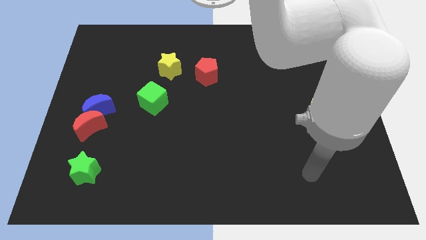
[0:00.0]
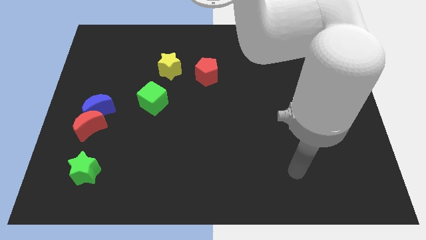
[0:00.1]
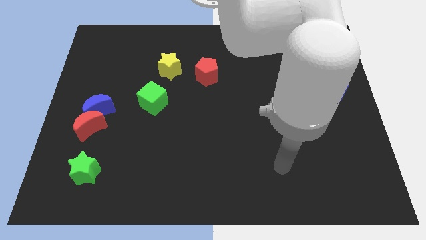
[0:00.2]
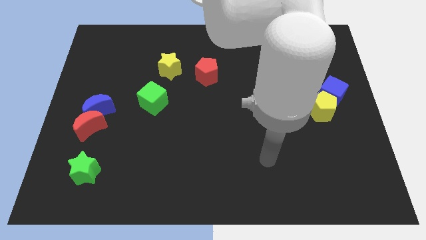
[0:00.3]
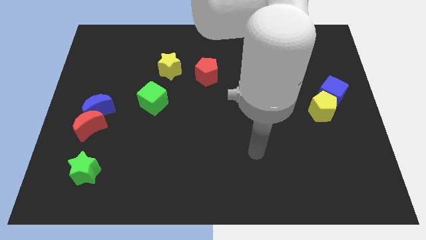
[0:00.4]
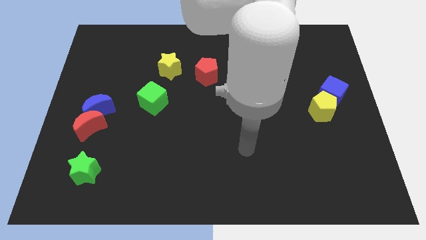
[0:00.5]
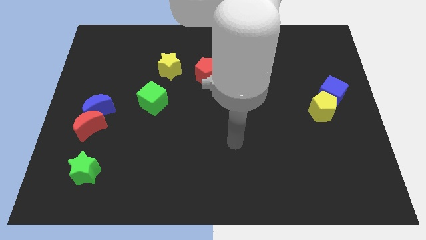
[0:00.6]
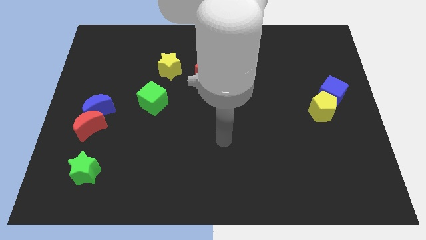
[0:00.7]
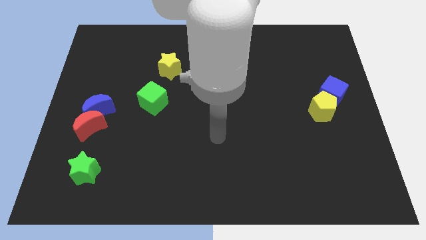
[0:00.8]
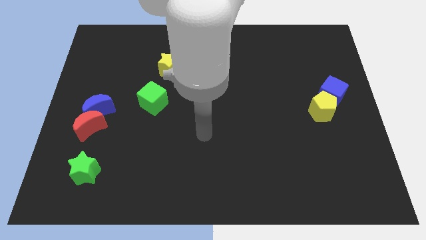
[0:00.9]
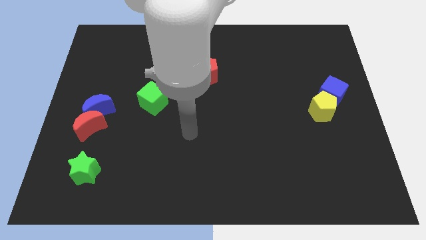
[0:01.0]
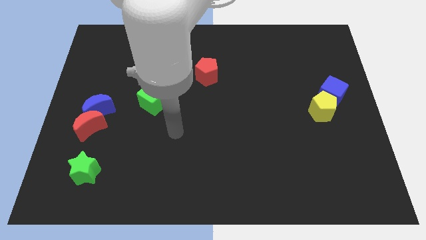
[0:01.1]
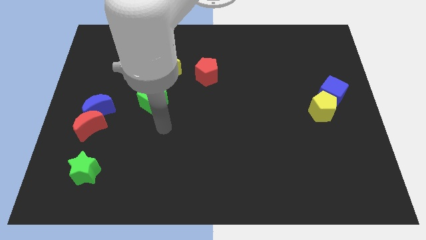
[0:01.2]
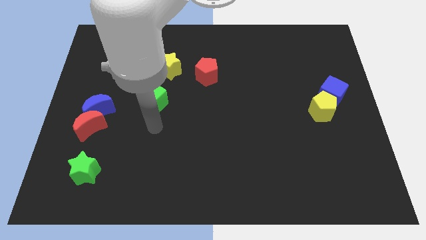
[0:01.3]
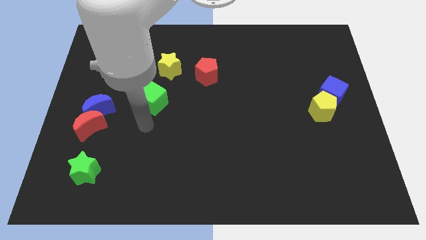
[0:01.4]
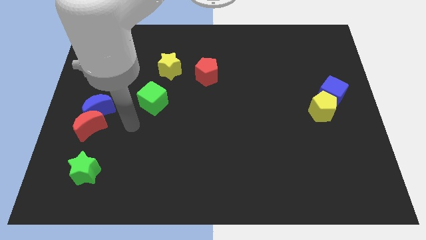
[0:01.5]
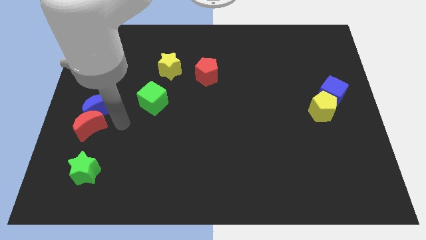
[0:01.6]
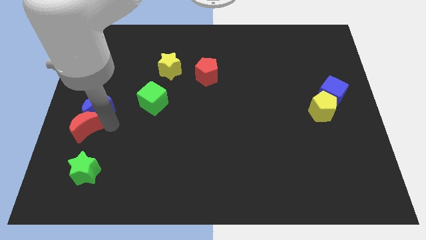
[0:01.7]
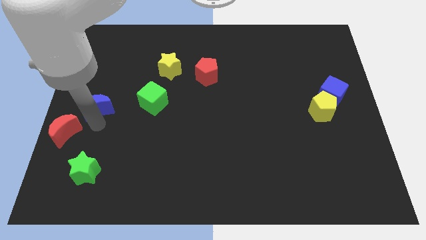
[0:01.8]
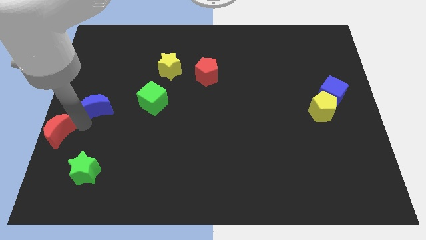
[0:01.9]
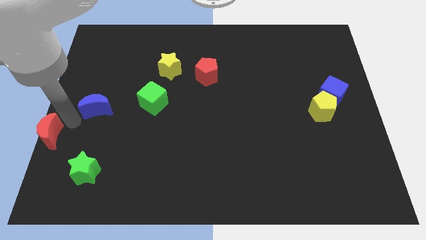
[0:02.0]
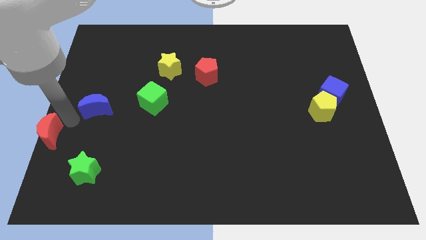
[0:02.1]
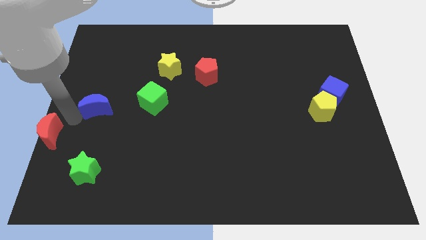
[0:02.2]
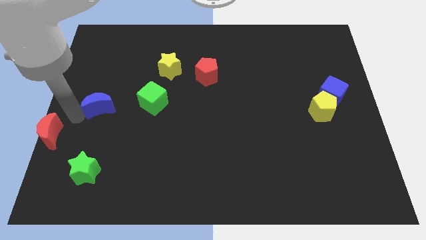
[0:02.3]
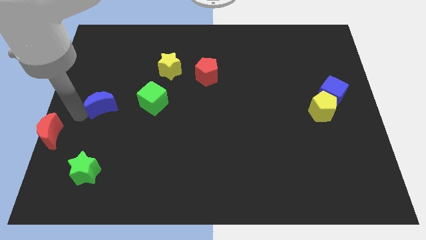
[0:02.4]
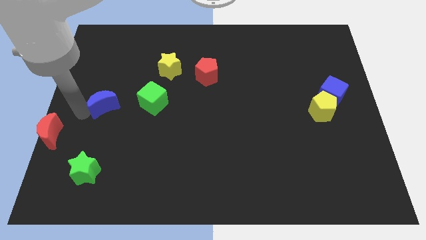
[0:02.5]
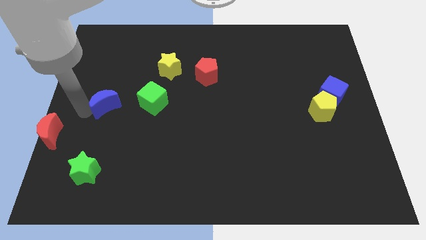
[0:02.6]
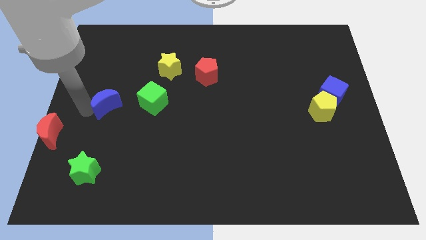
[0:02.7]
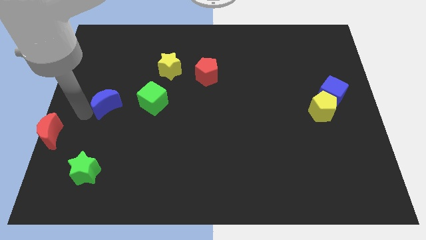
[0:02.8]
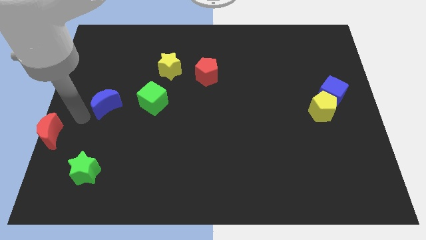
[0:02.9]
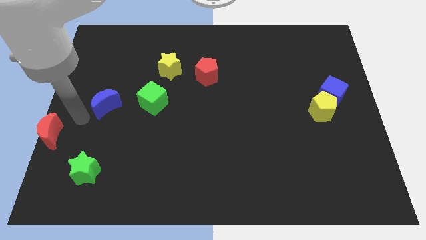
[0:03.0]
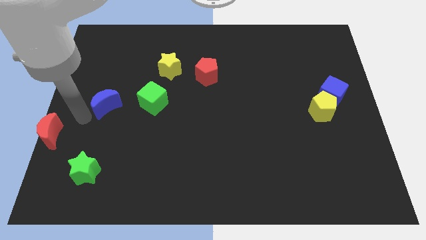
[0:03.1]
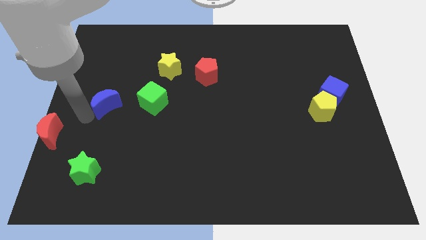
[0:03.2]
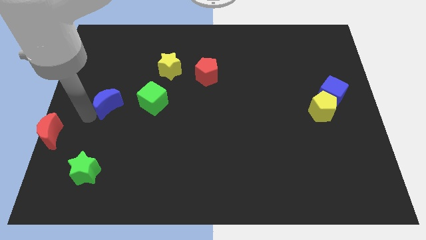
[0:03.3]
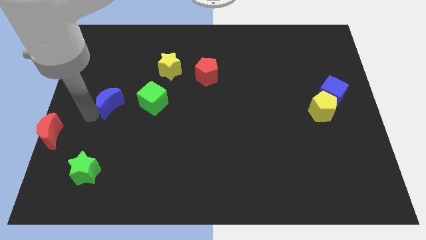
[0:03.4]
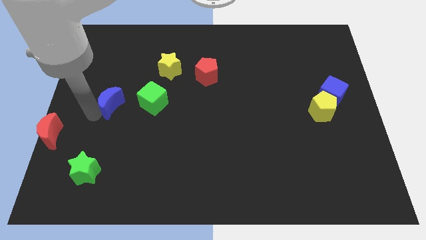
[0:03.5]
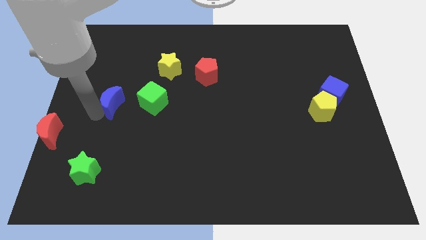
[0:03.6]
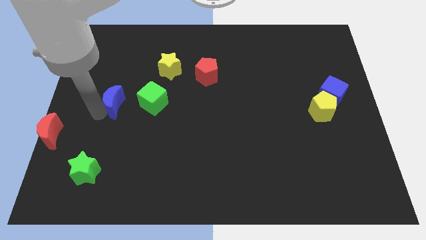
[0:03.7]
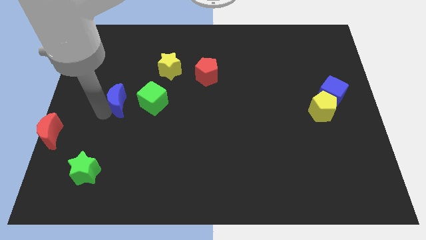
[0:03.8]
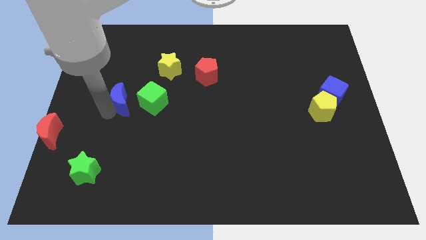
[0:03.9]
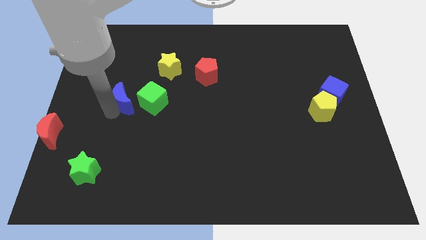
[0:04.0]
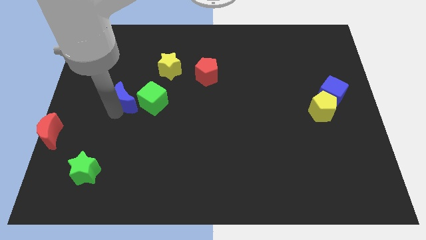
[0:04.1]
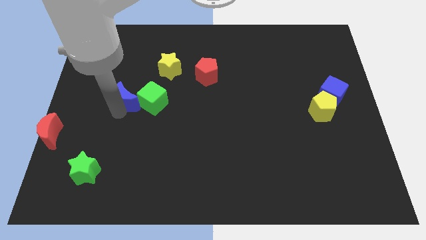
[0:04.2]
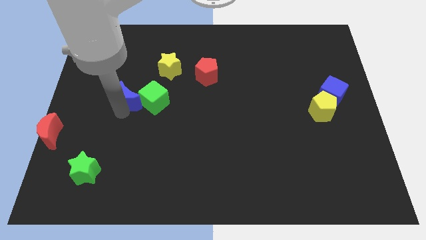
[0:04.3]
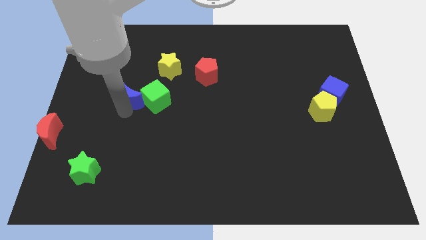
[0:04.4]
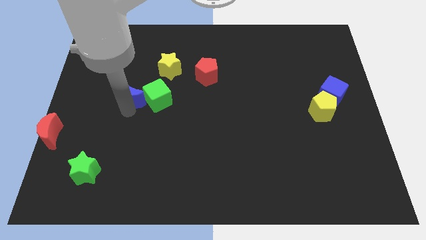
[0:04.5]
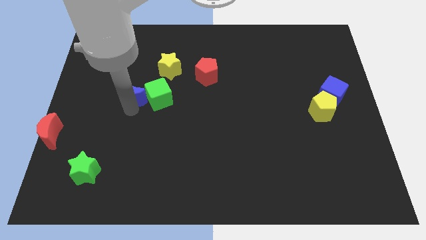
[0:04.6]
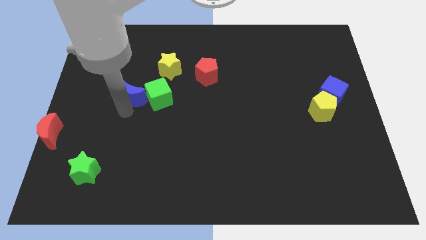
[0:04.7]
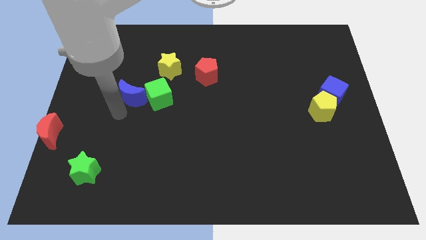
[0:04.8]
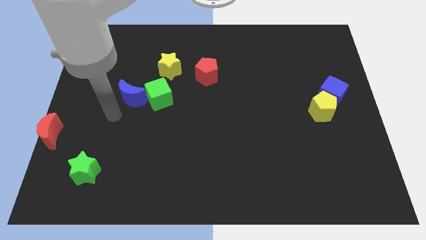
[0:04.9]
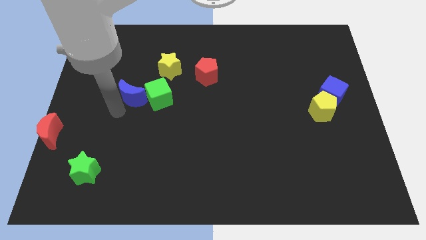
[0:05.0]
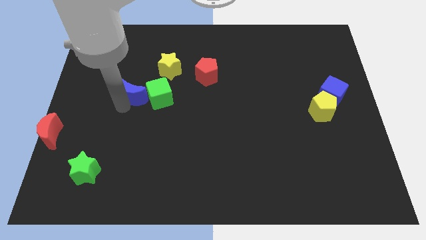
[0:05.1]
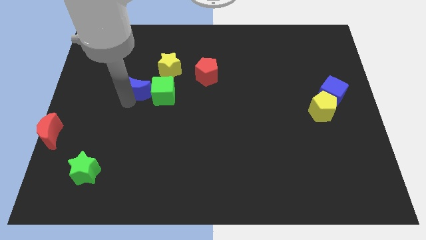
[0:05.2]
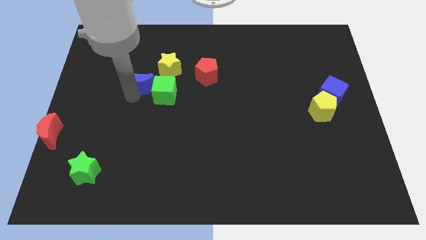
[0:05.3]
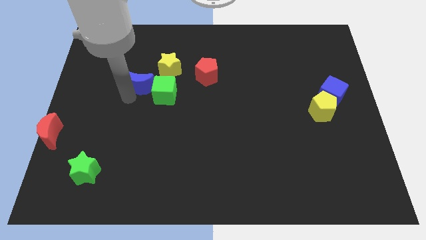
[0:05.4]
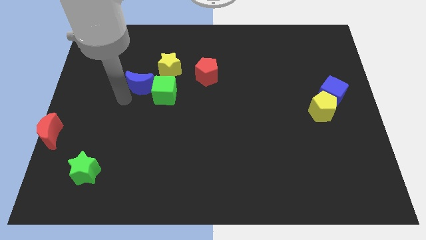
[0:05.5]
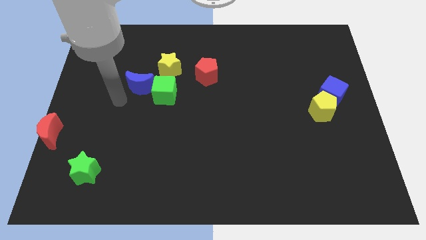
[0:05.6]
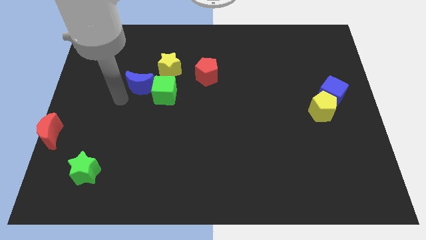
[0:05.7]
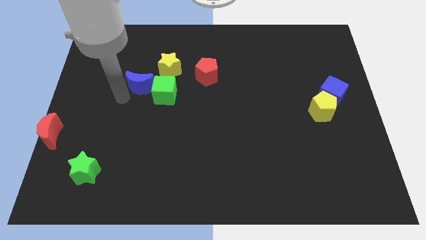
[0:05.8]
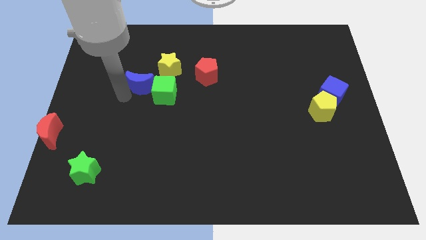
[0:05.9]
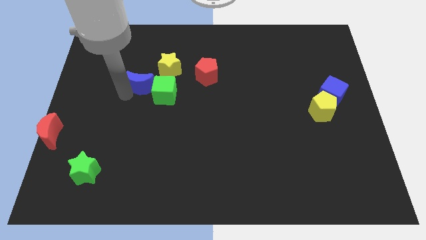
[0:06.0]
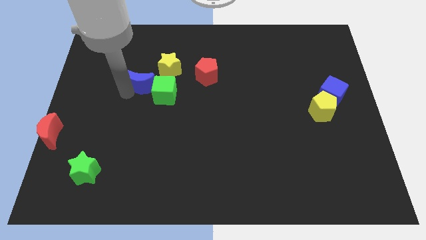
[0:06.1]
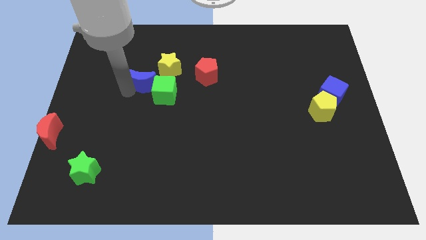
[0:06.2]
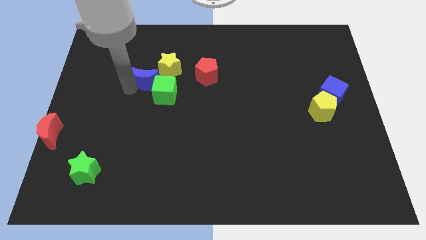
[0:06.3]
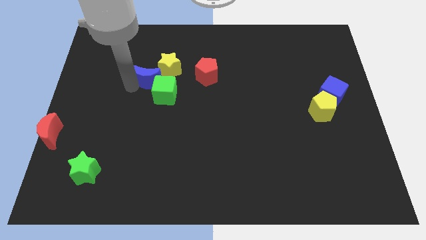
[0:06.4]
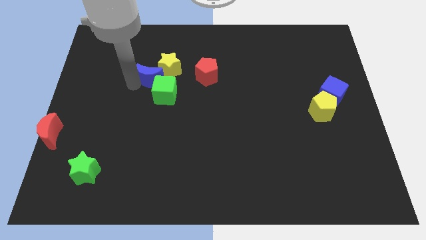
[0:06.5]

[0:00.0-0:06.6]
put the blue moon next to the yellow star
